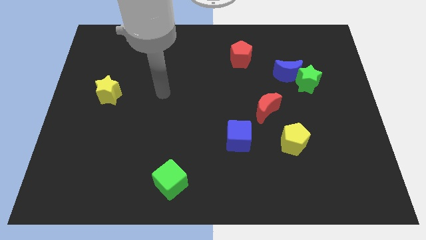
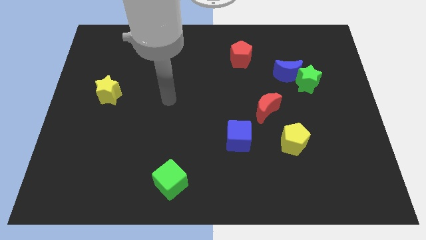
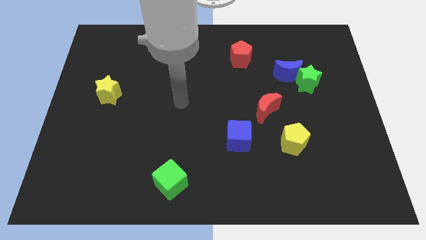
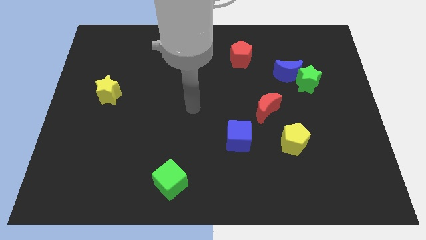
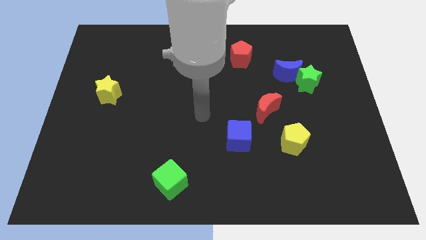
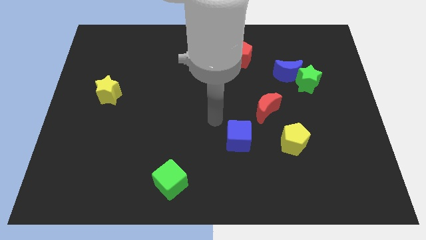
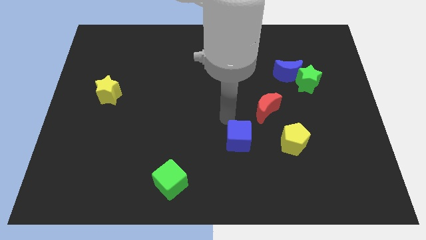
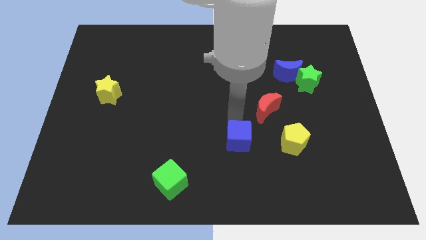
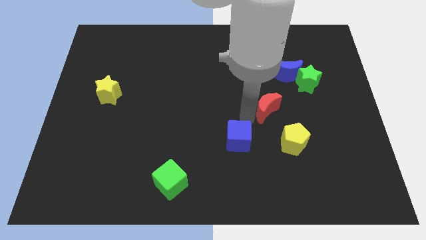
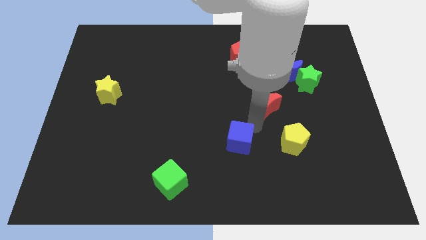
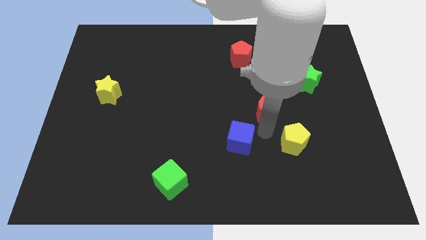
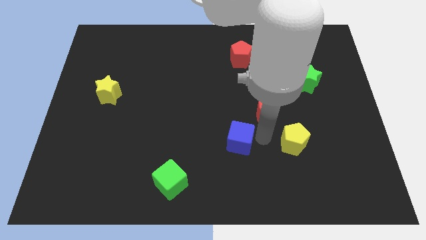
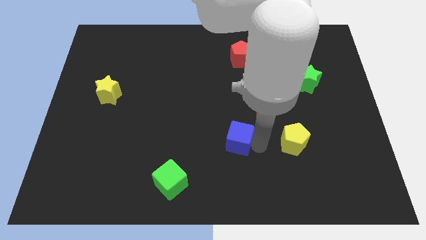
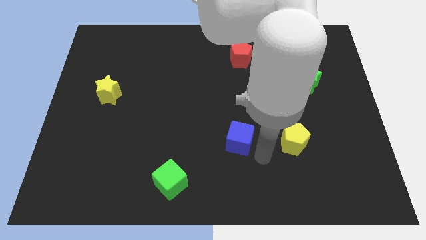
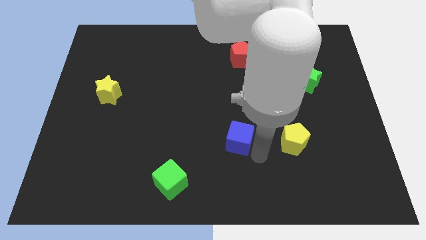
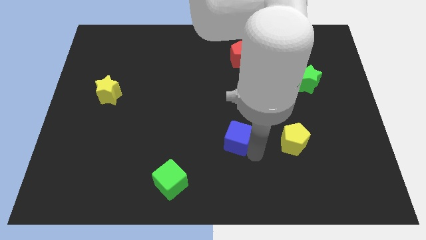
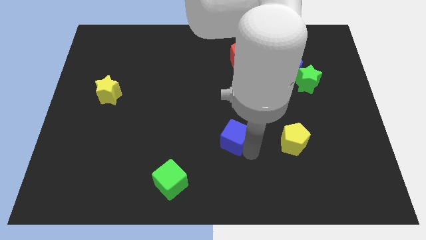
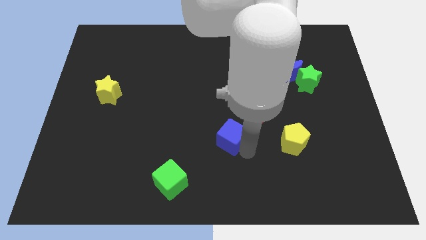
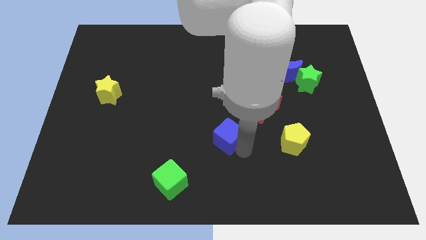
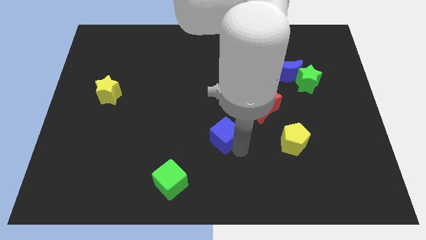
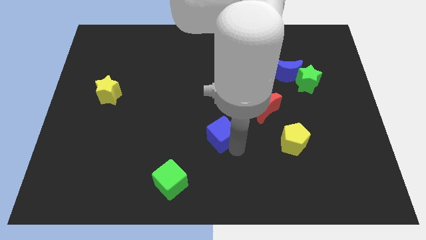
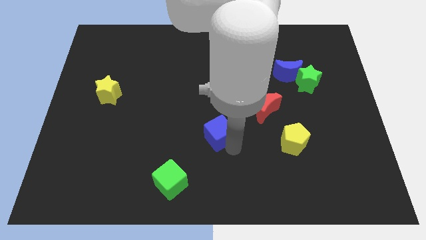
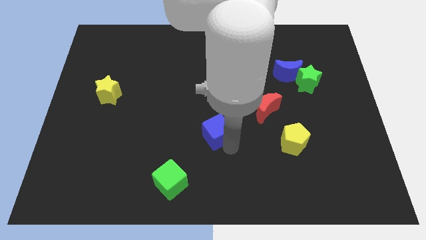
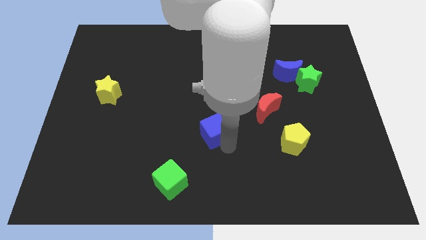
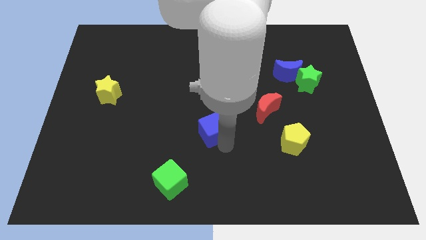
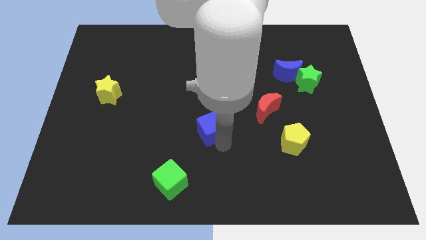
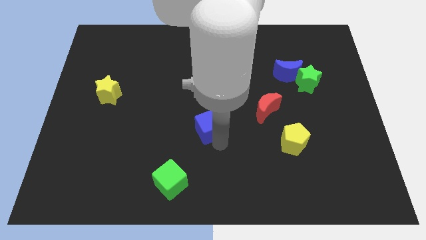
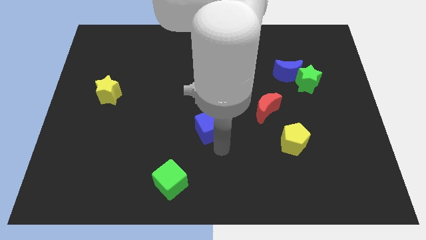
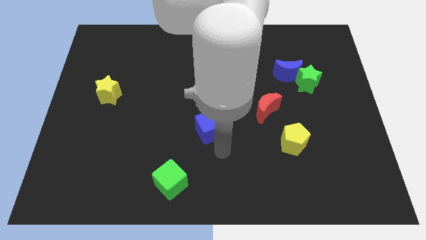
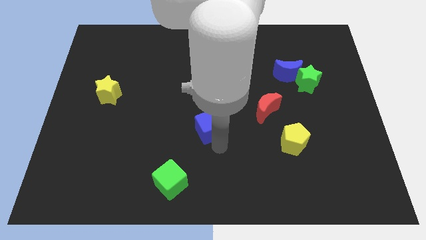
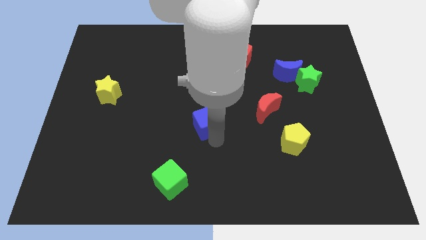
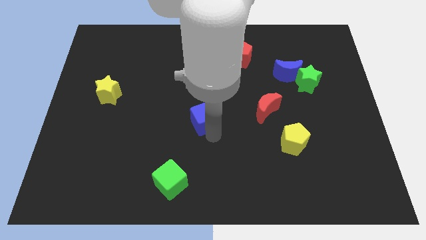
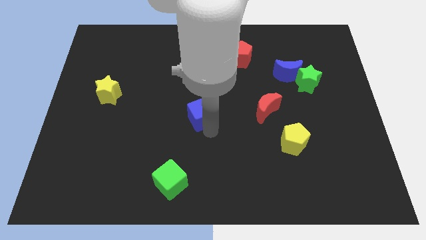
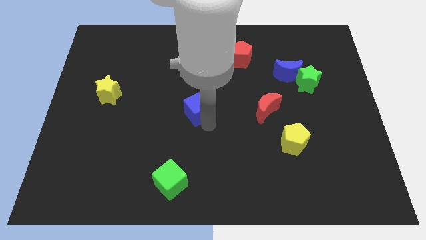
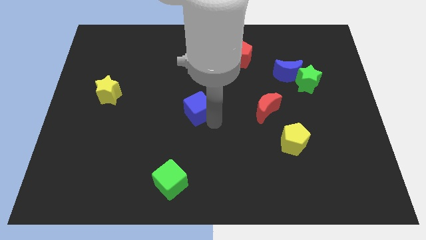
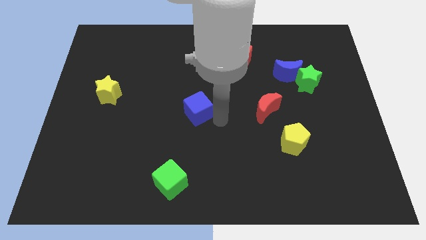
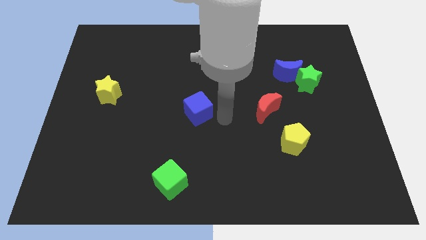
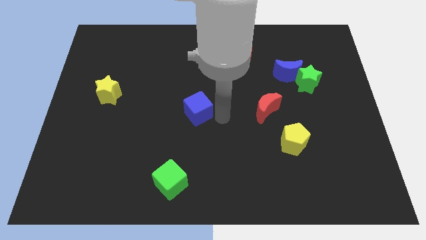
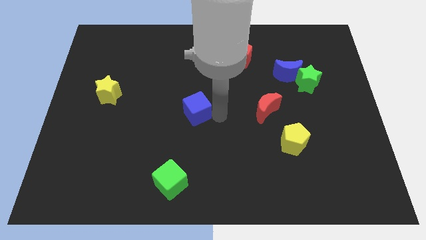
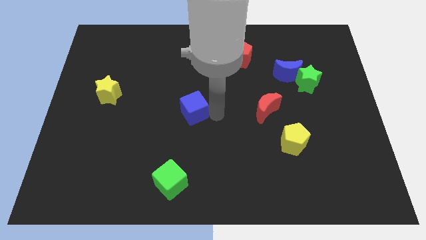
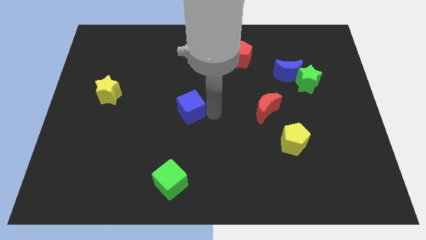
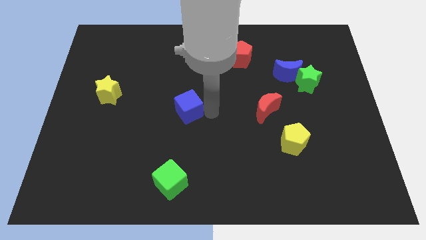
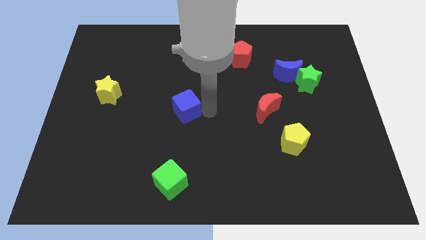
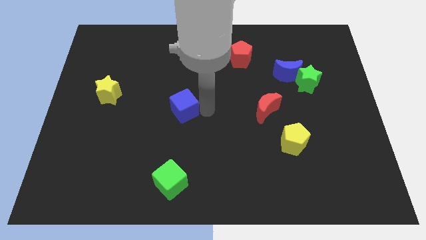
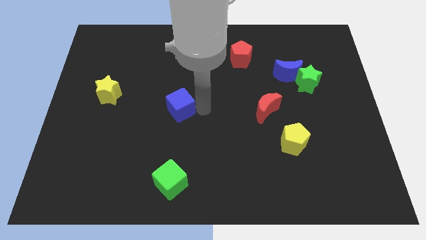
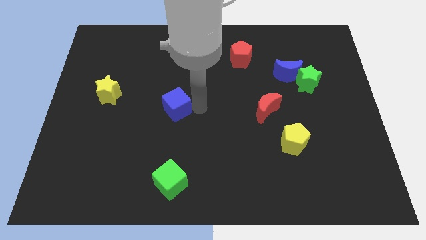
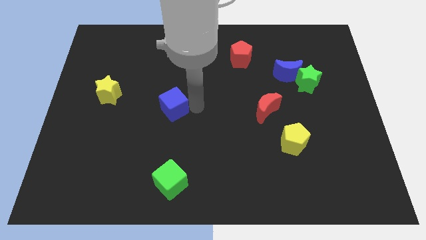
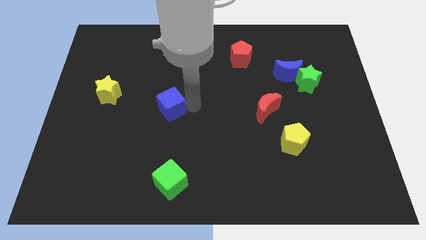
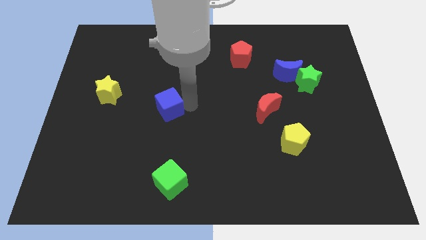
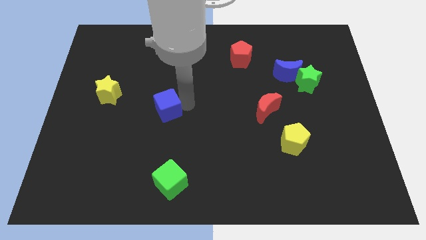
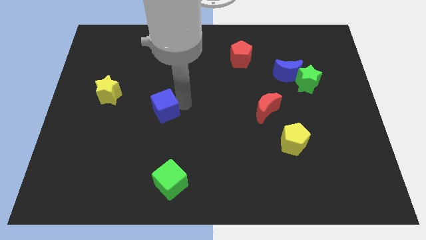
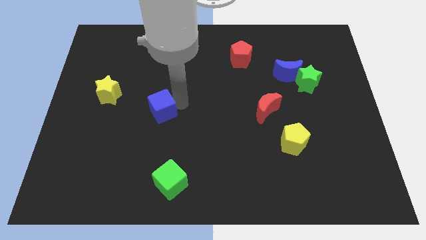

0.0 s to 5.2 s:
put the blue cube right of the yellow star

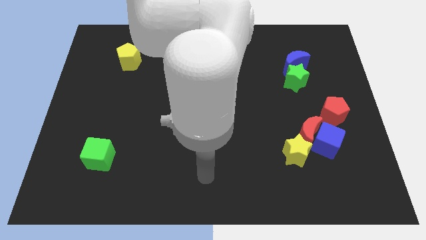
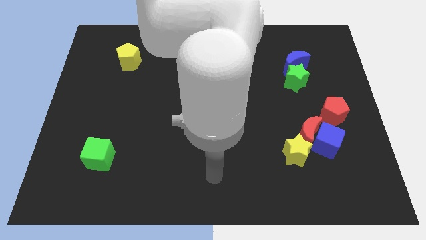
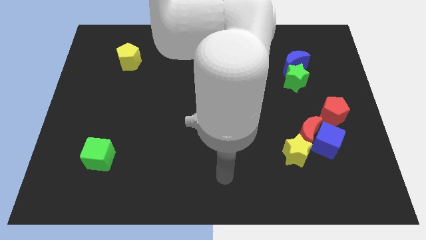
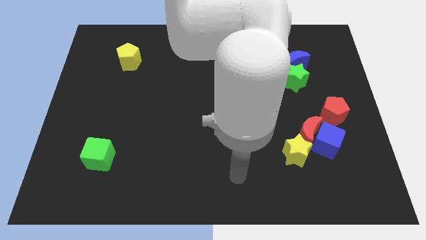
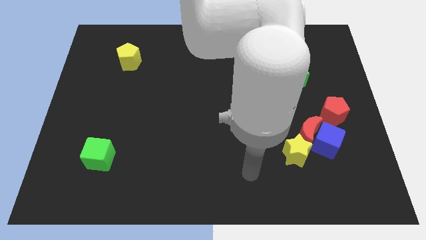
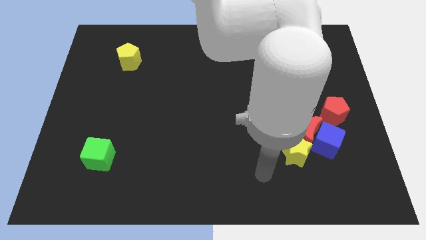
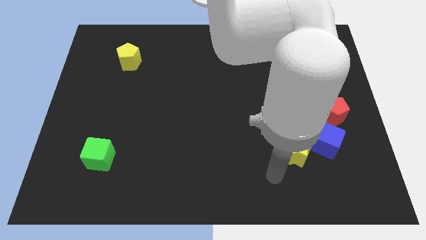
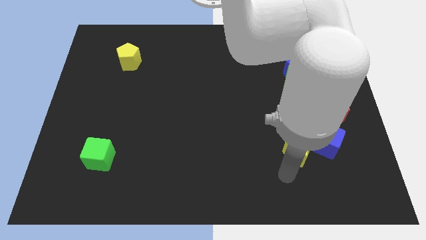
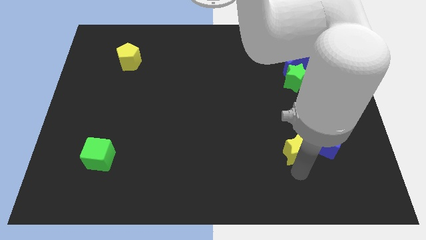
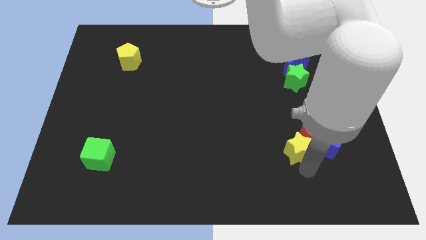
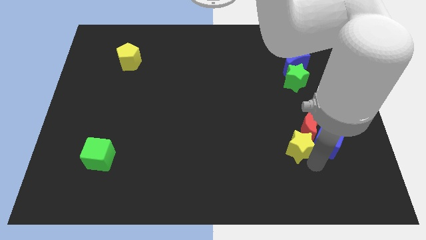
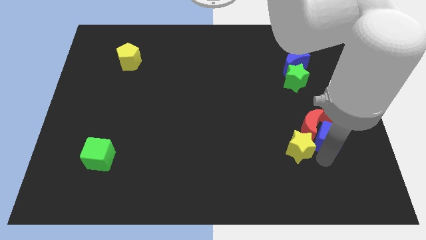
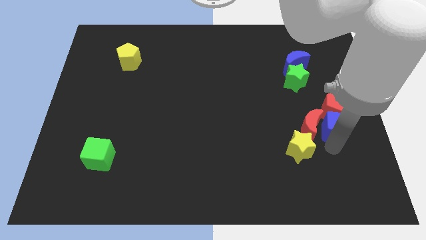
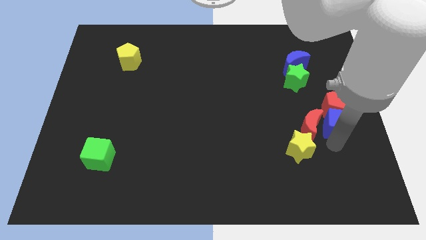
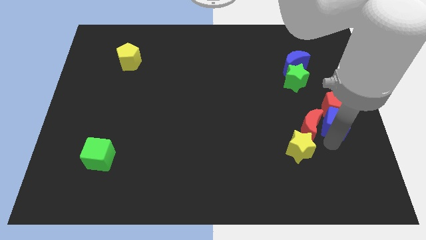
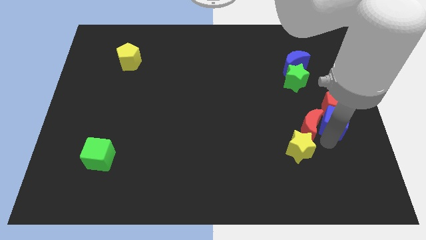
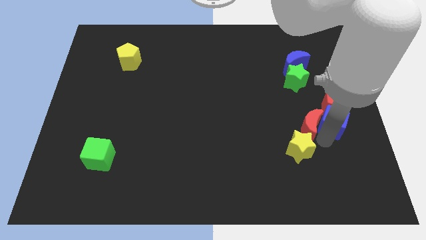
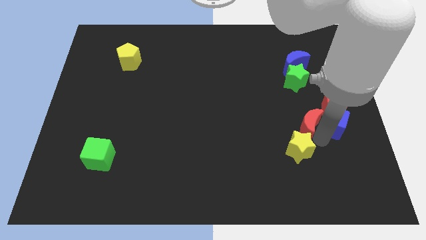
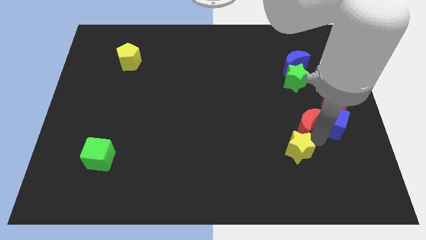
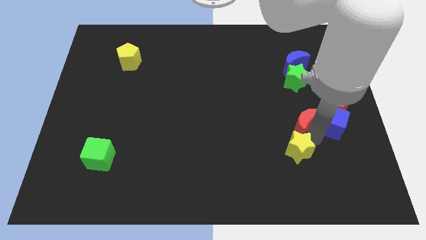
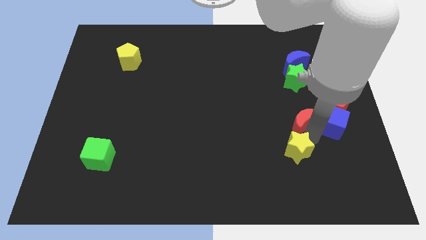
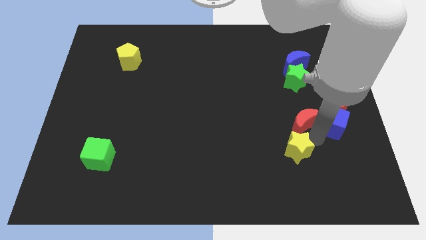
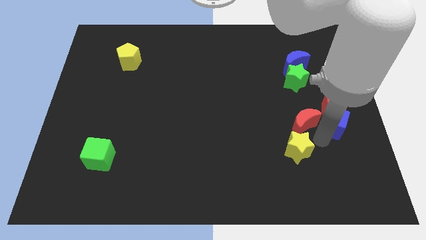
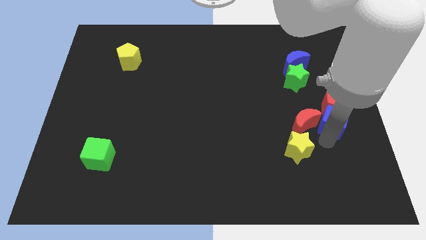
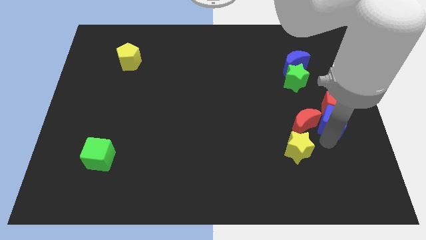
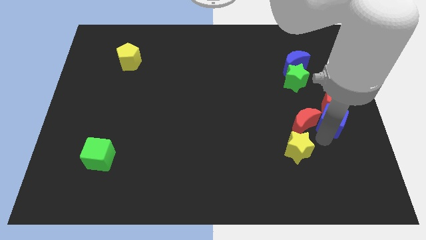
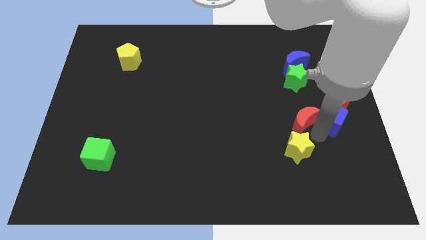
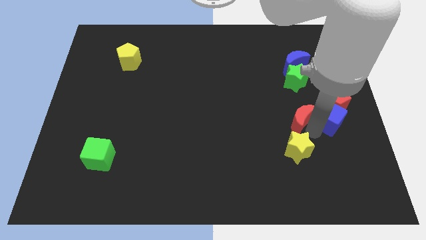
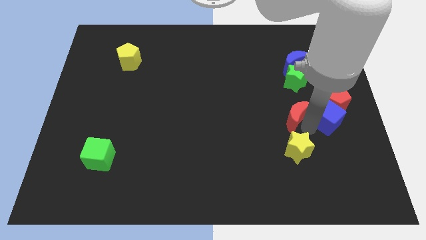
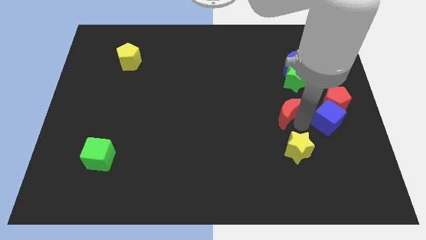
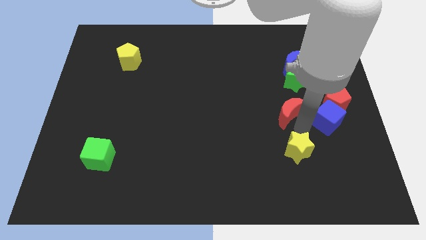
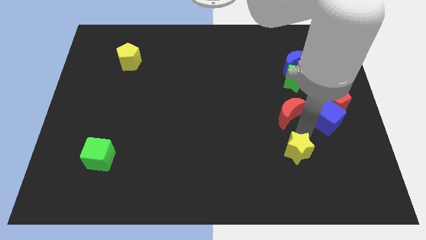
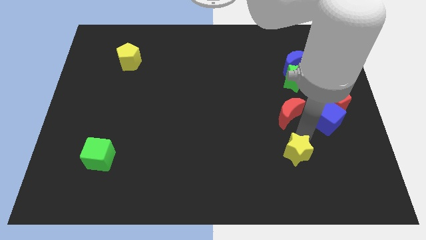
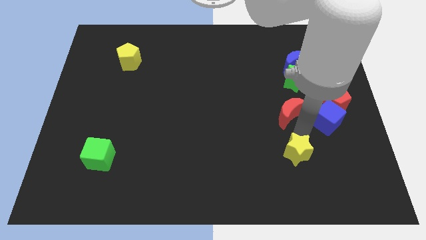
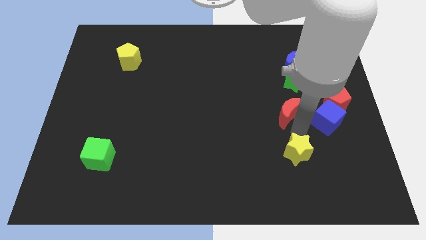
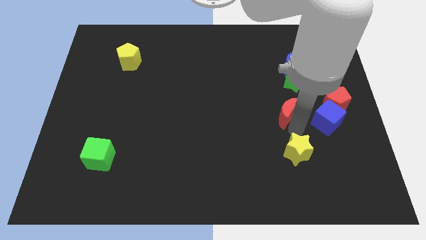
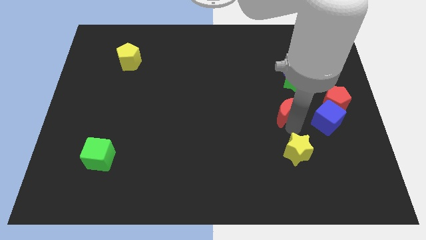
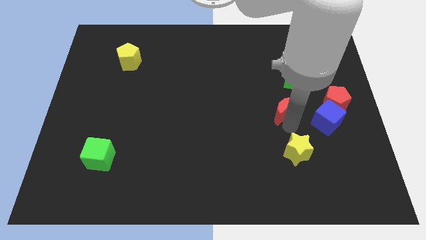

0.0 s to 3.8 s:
slide the red moon to the bottom left of the green star
